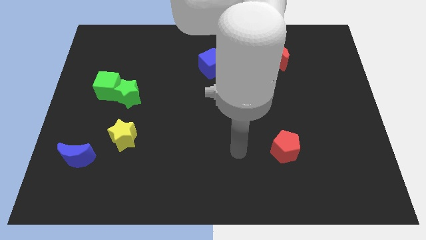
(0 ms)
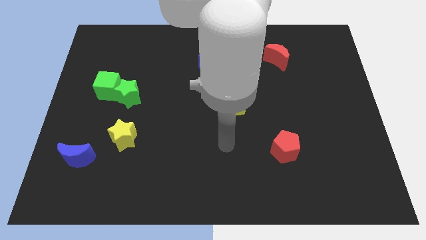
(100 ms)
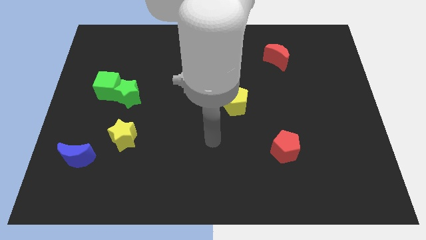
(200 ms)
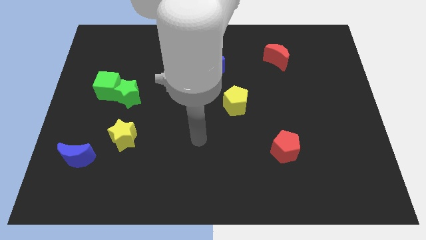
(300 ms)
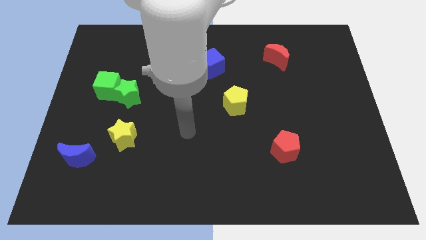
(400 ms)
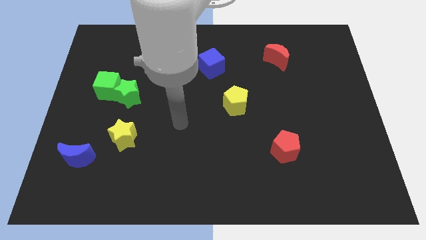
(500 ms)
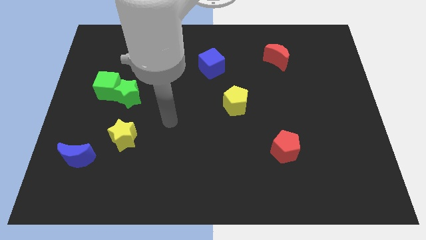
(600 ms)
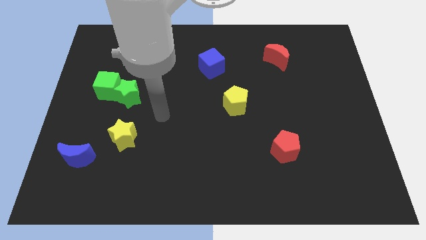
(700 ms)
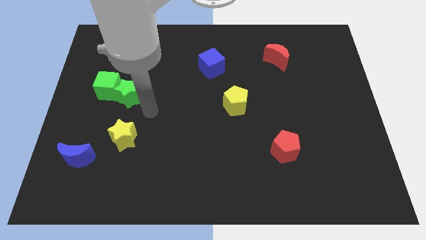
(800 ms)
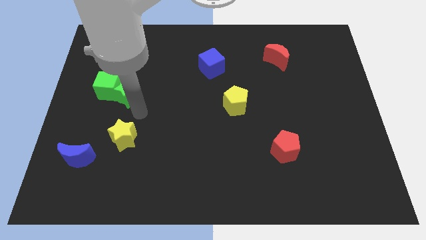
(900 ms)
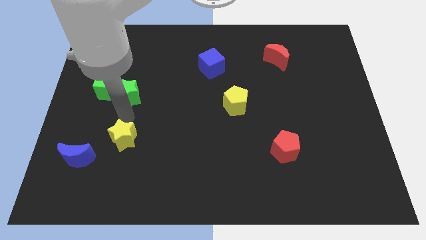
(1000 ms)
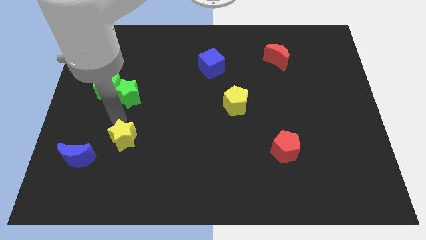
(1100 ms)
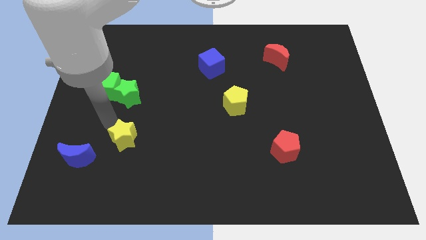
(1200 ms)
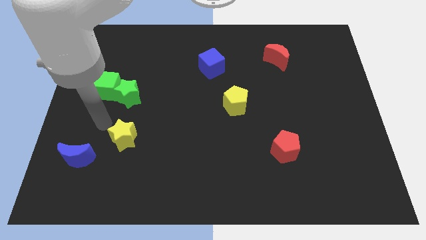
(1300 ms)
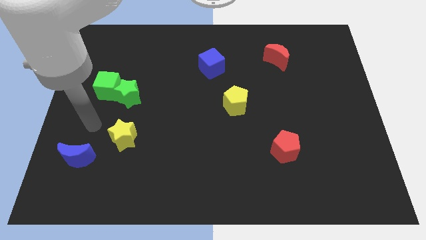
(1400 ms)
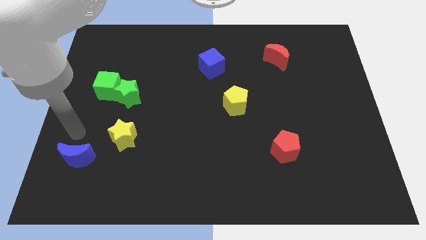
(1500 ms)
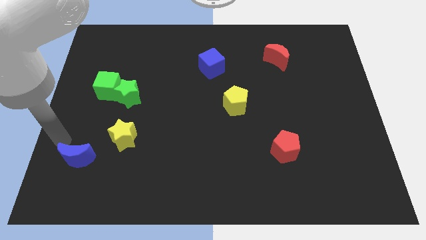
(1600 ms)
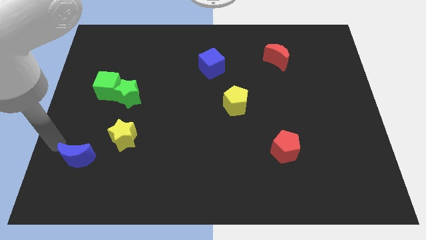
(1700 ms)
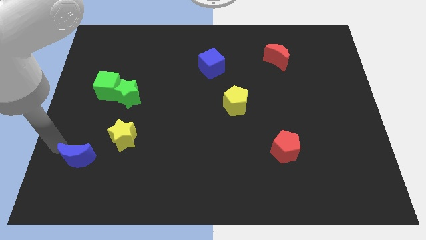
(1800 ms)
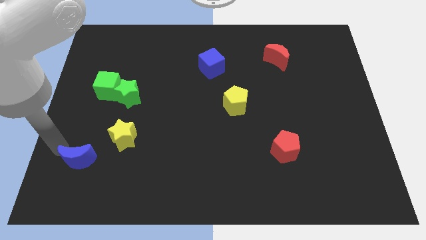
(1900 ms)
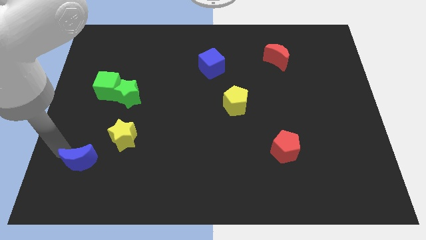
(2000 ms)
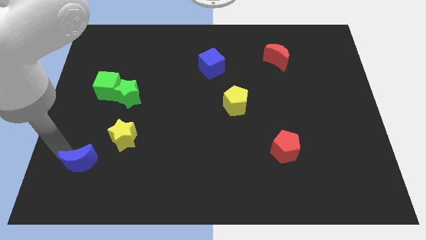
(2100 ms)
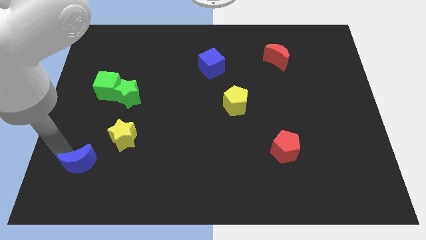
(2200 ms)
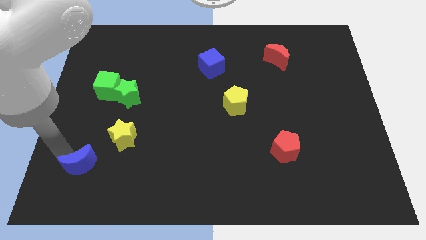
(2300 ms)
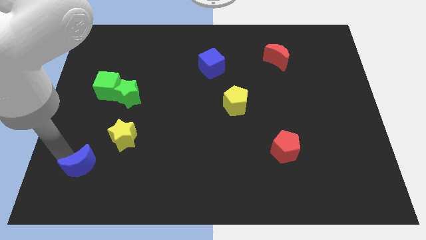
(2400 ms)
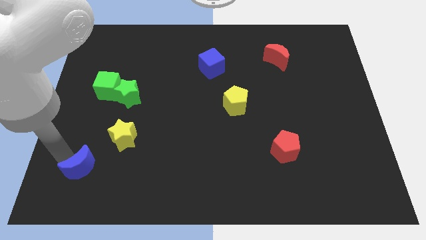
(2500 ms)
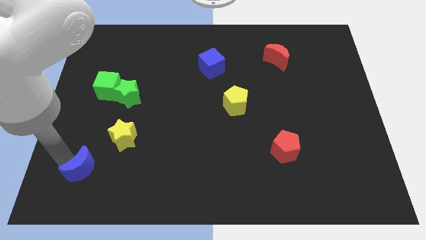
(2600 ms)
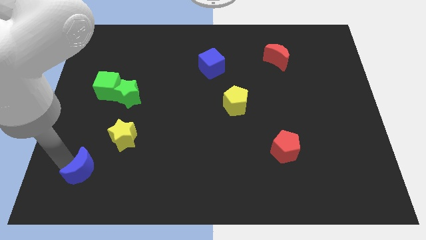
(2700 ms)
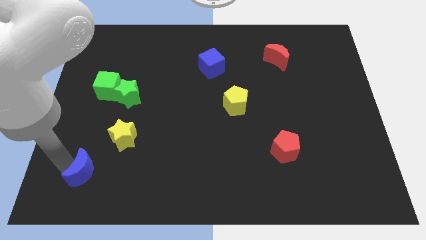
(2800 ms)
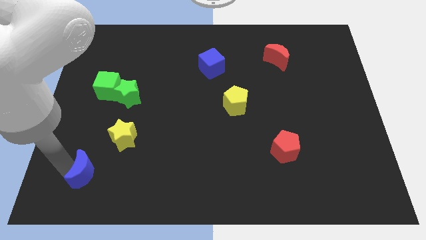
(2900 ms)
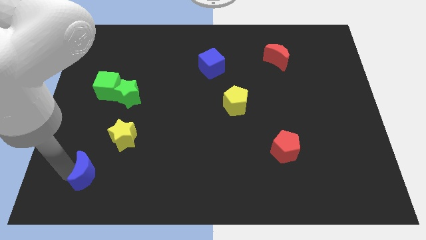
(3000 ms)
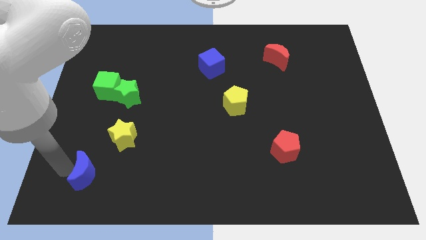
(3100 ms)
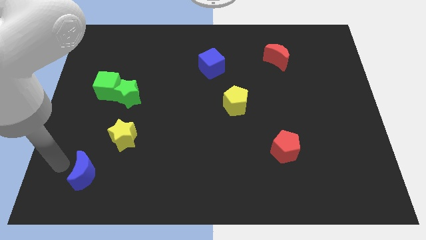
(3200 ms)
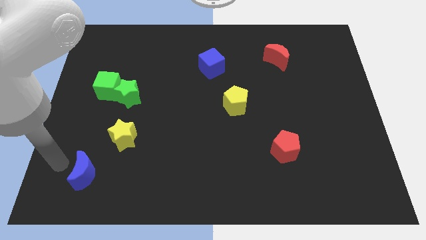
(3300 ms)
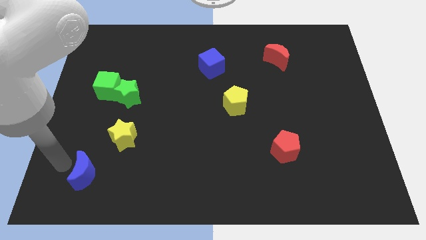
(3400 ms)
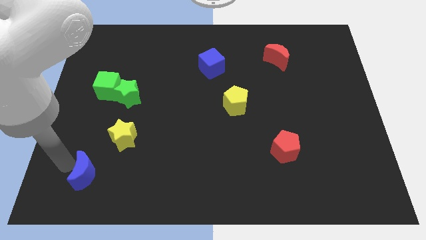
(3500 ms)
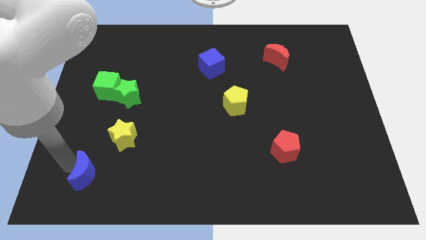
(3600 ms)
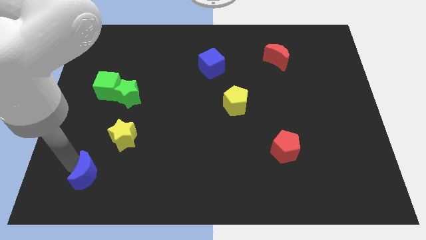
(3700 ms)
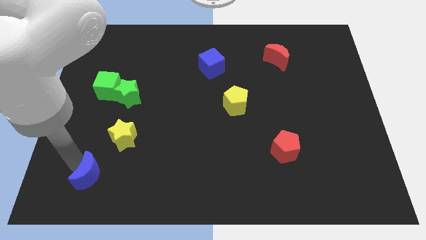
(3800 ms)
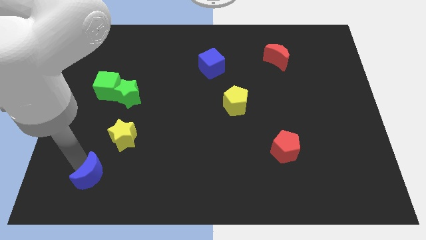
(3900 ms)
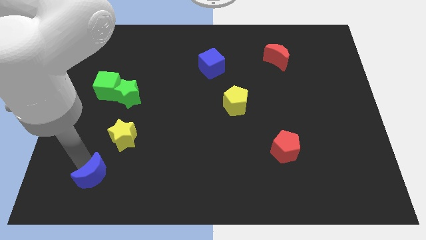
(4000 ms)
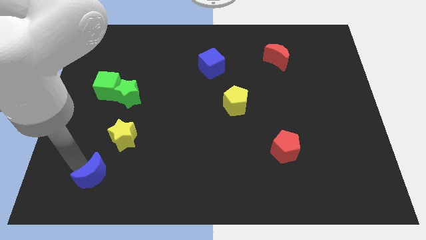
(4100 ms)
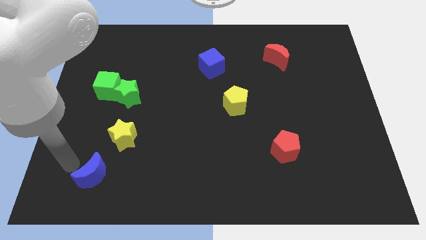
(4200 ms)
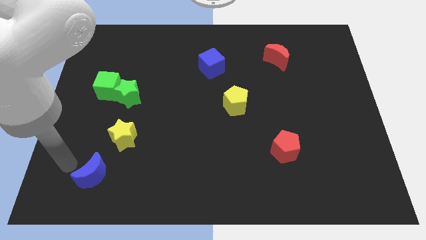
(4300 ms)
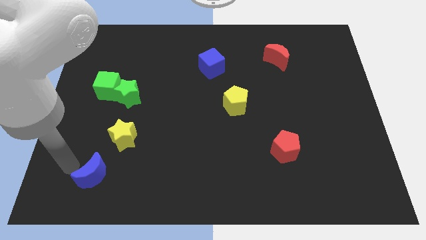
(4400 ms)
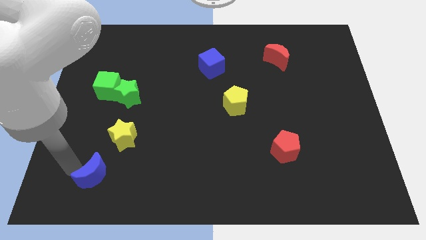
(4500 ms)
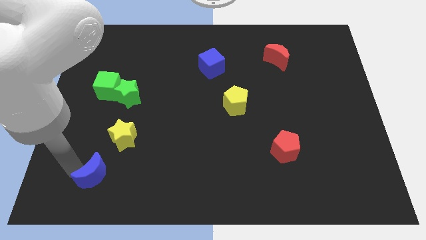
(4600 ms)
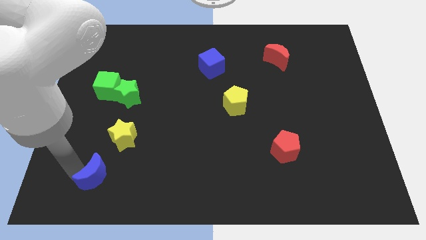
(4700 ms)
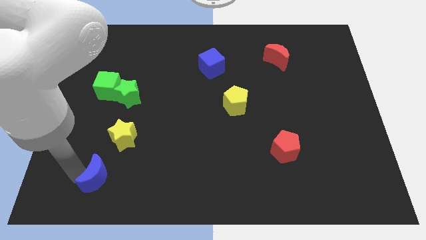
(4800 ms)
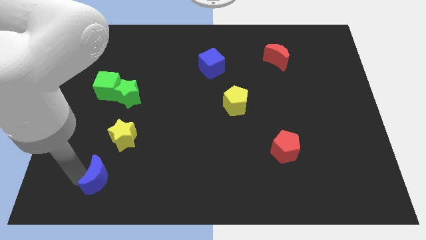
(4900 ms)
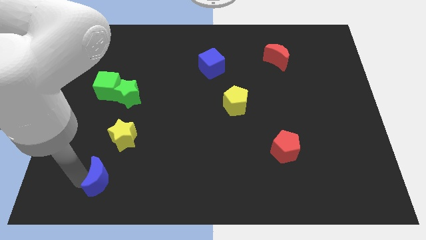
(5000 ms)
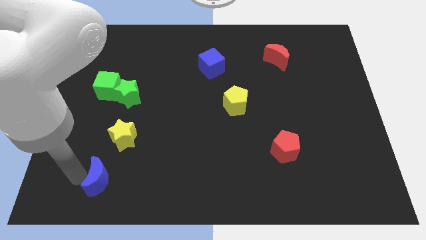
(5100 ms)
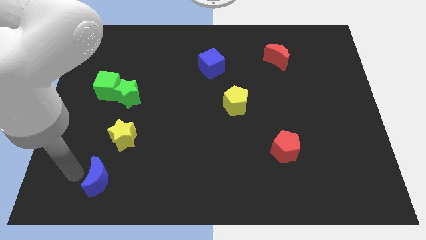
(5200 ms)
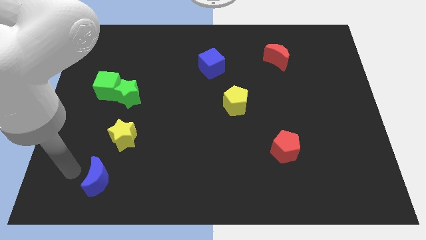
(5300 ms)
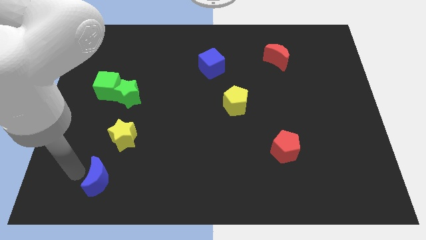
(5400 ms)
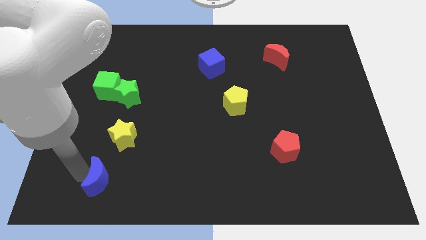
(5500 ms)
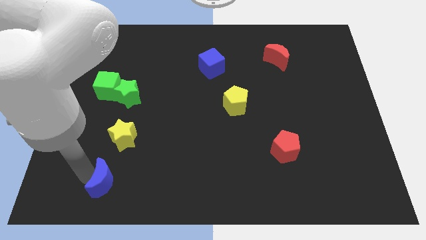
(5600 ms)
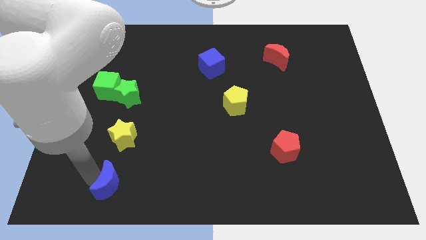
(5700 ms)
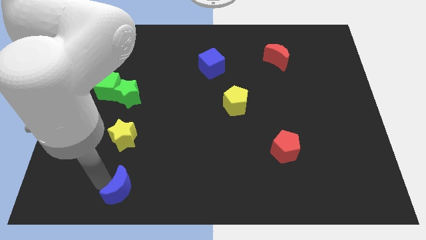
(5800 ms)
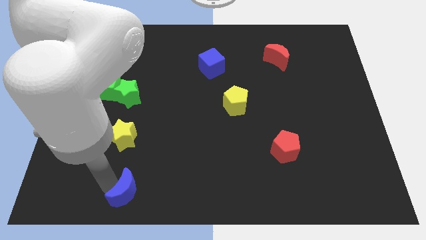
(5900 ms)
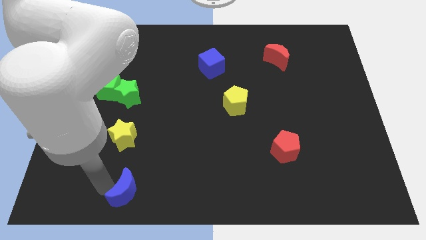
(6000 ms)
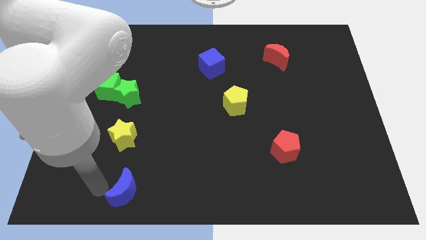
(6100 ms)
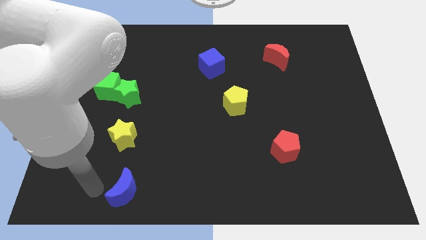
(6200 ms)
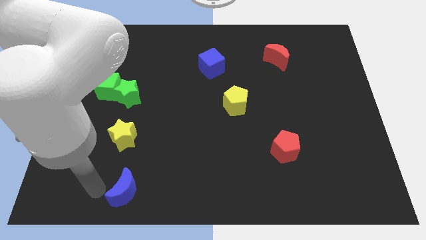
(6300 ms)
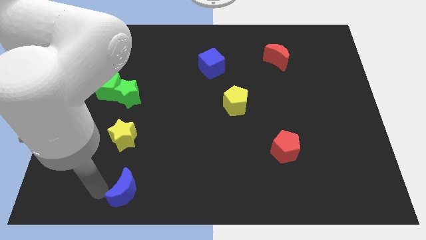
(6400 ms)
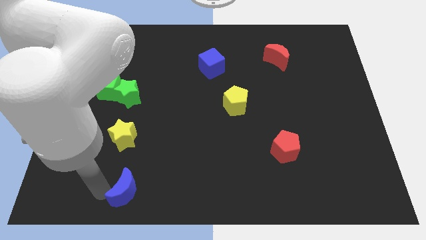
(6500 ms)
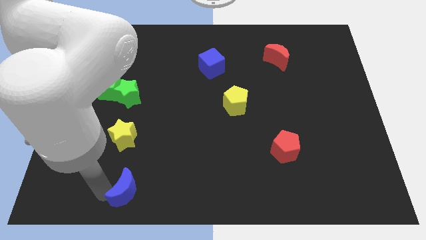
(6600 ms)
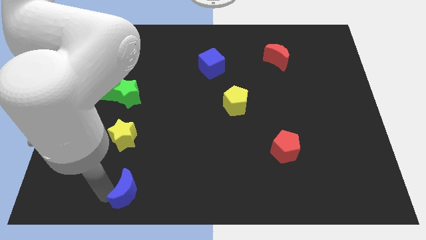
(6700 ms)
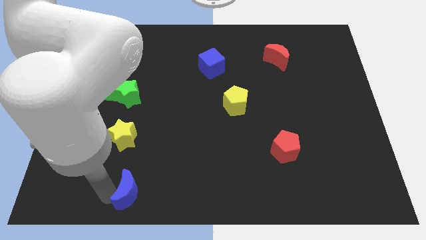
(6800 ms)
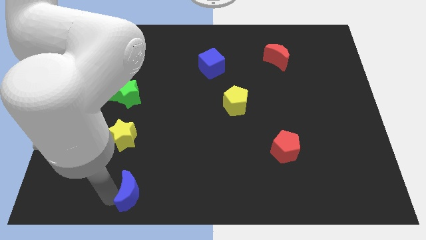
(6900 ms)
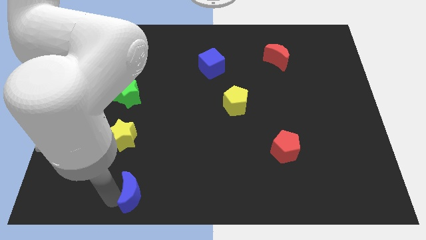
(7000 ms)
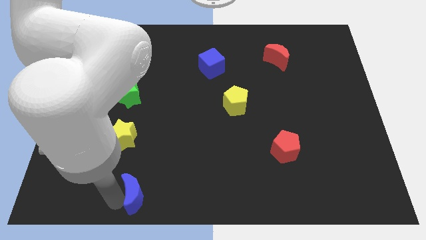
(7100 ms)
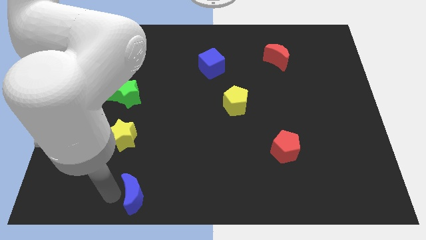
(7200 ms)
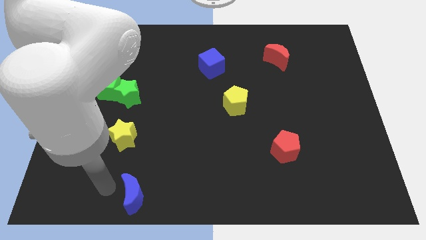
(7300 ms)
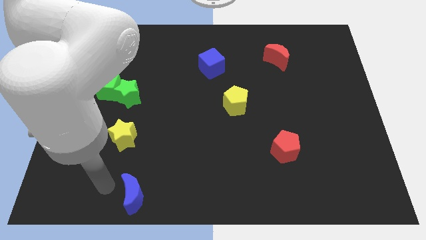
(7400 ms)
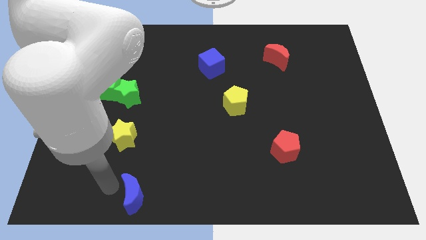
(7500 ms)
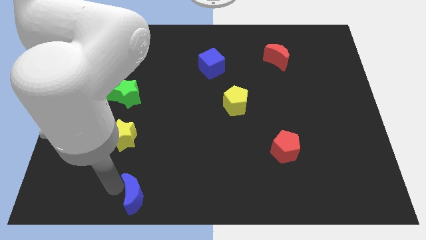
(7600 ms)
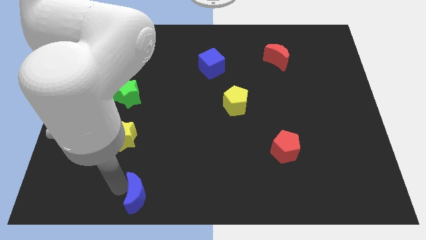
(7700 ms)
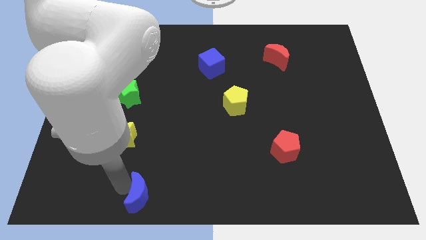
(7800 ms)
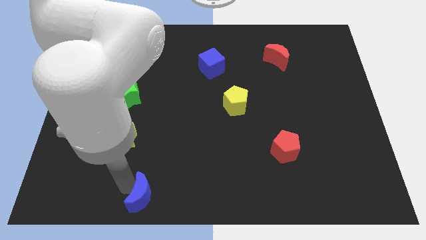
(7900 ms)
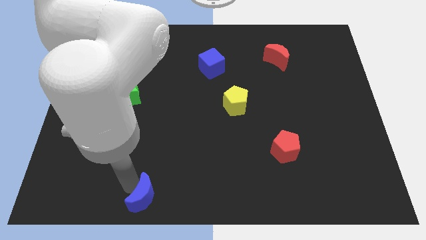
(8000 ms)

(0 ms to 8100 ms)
slide the blue moon to the bottom
